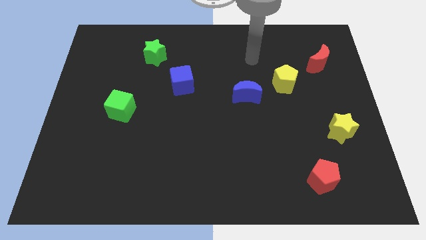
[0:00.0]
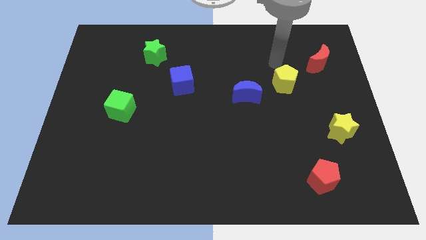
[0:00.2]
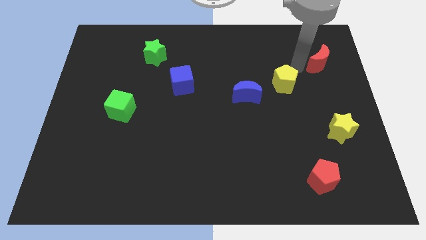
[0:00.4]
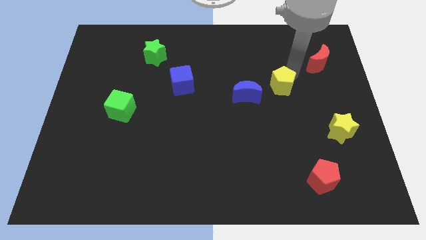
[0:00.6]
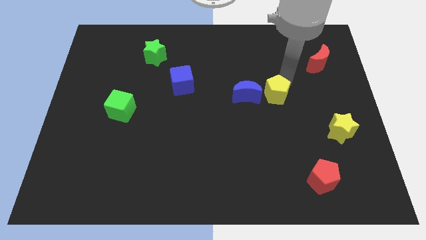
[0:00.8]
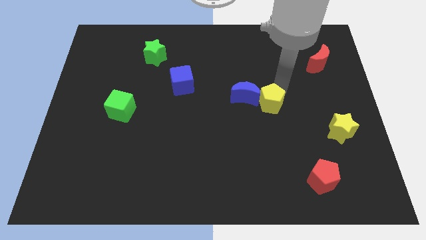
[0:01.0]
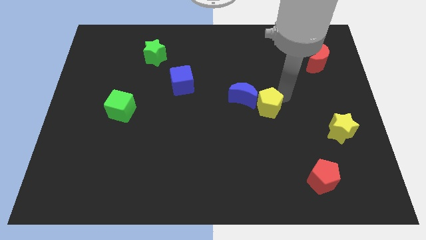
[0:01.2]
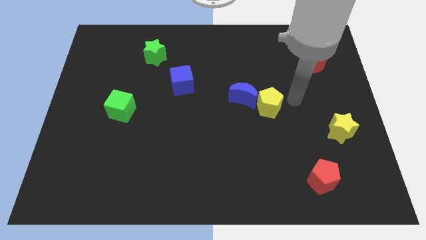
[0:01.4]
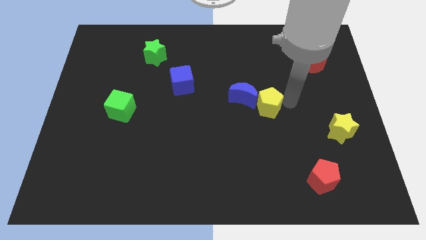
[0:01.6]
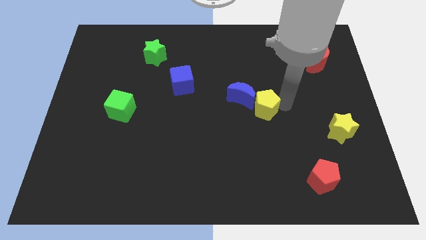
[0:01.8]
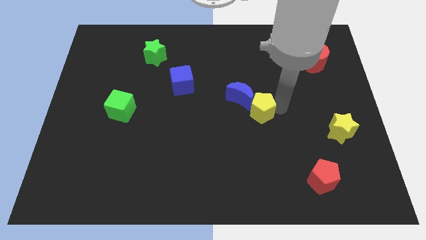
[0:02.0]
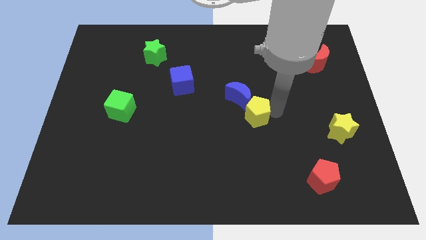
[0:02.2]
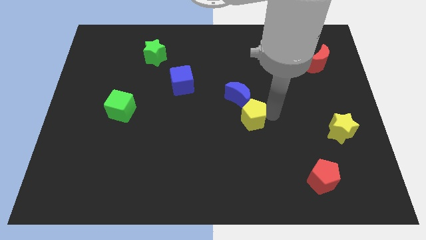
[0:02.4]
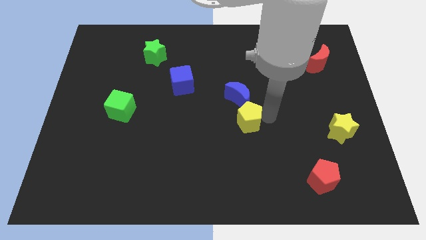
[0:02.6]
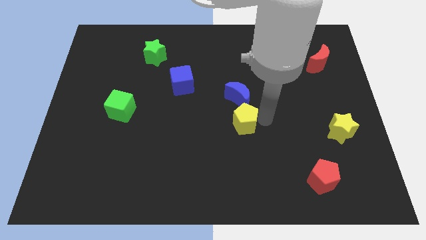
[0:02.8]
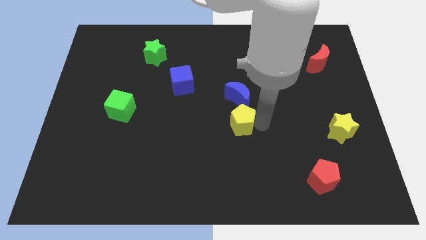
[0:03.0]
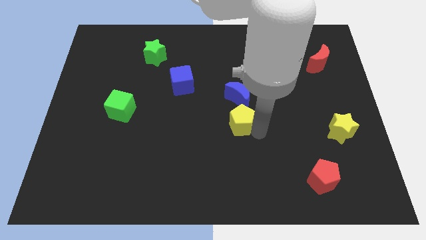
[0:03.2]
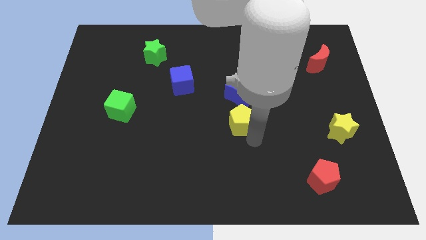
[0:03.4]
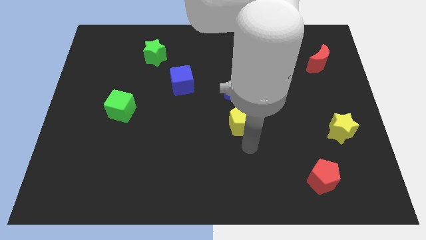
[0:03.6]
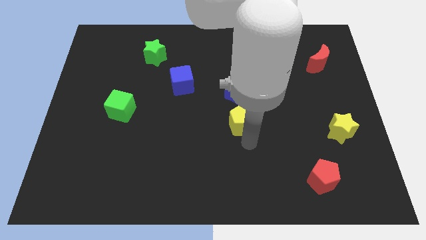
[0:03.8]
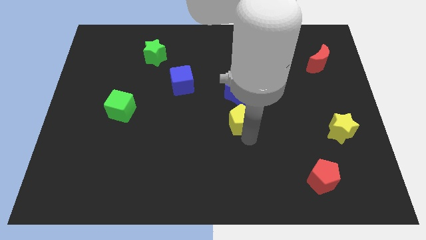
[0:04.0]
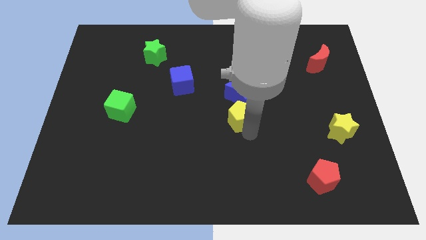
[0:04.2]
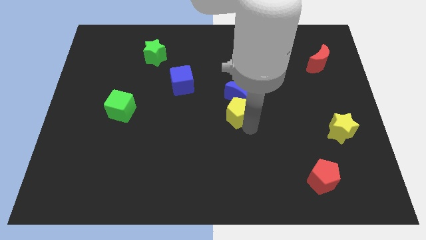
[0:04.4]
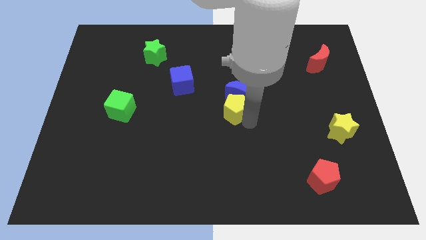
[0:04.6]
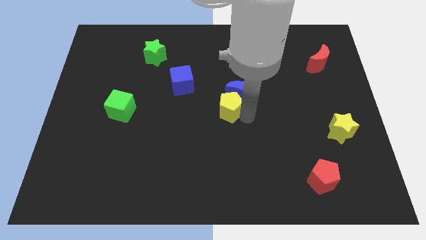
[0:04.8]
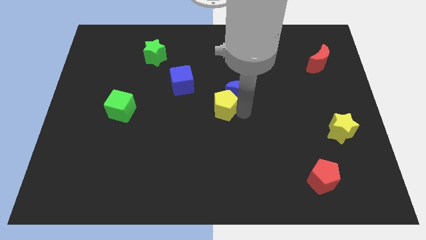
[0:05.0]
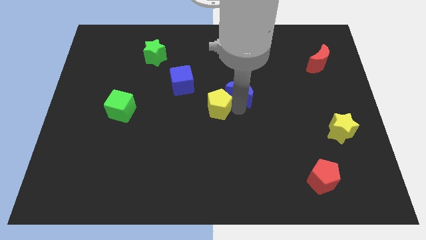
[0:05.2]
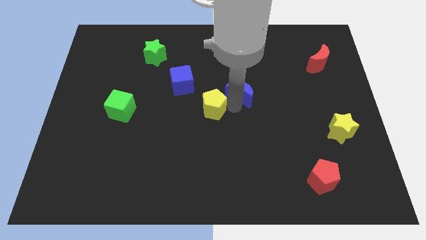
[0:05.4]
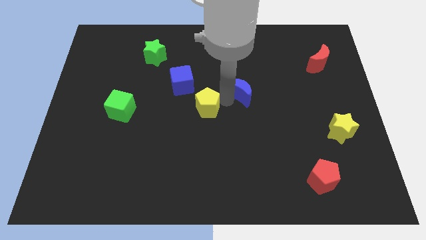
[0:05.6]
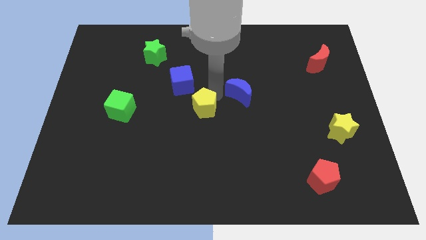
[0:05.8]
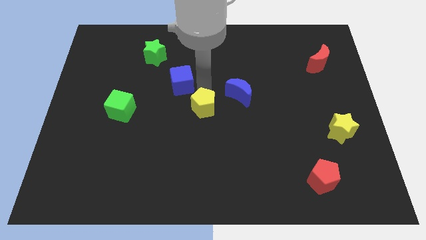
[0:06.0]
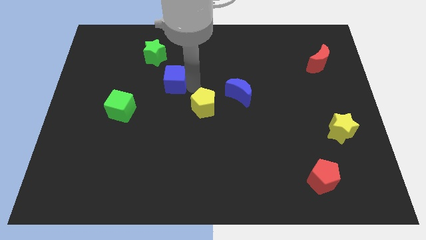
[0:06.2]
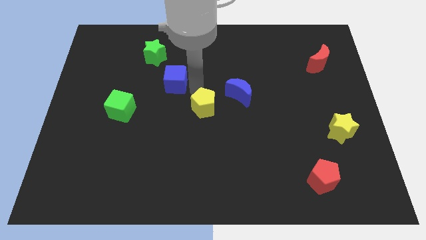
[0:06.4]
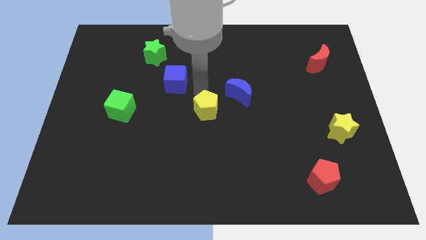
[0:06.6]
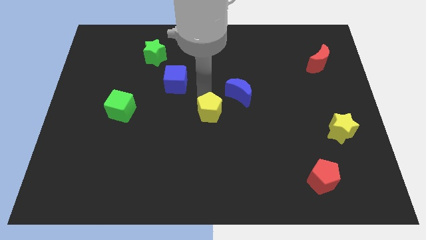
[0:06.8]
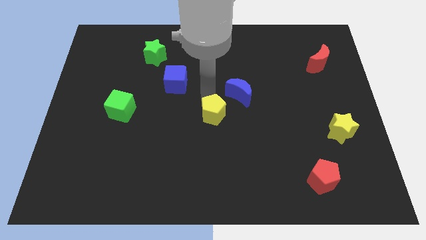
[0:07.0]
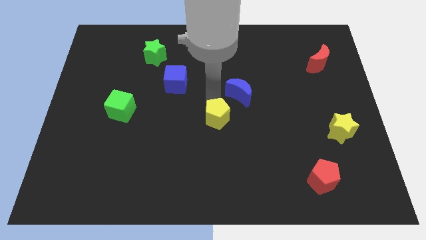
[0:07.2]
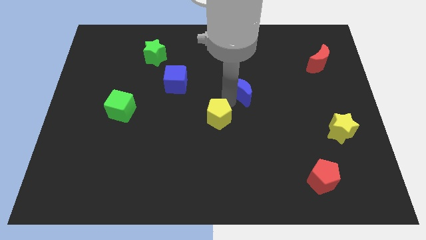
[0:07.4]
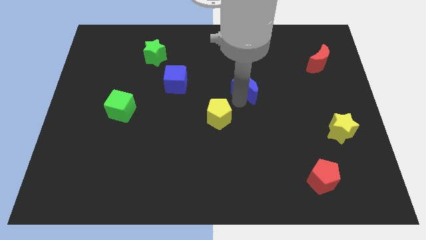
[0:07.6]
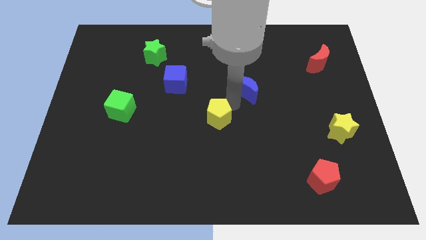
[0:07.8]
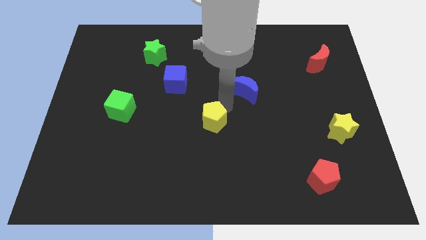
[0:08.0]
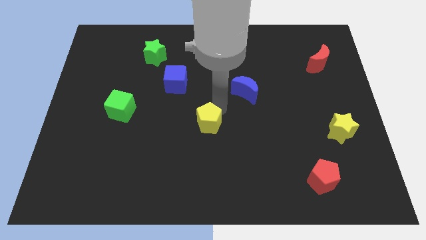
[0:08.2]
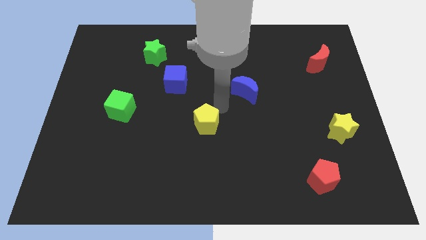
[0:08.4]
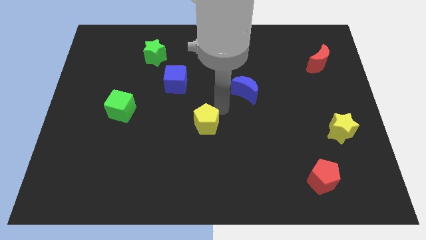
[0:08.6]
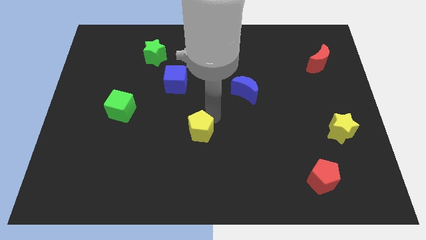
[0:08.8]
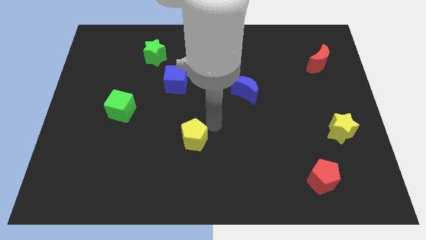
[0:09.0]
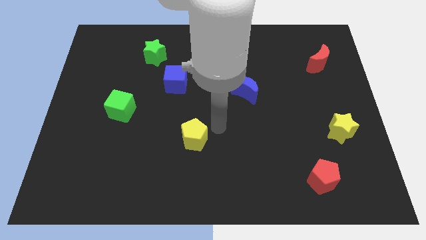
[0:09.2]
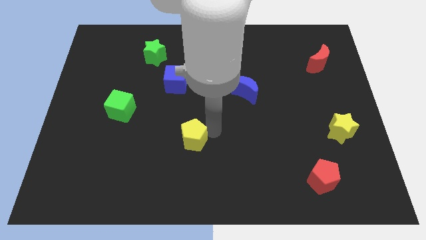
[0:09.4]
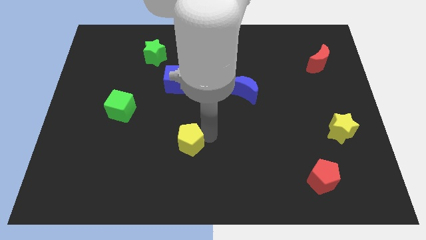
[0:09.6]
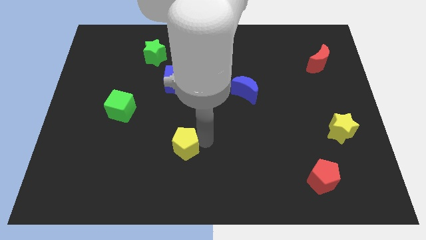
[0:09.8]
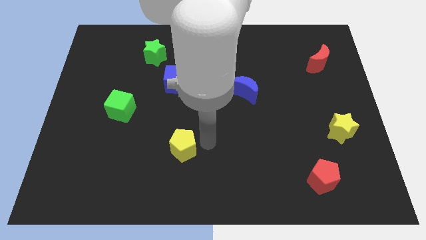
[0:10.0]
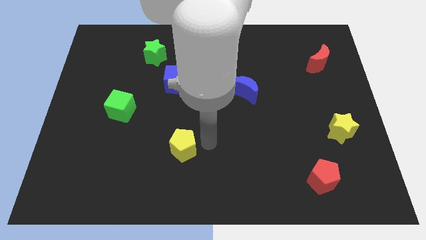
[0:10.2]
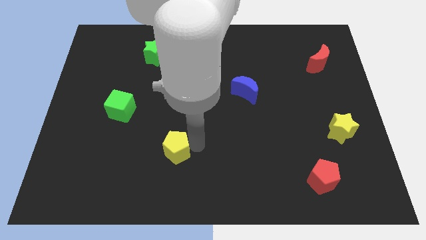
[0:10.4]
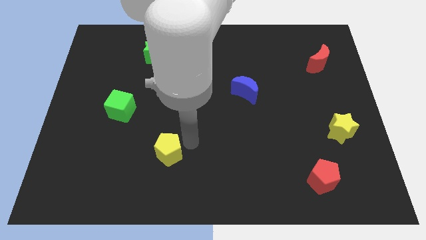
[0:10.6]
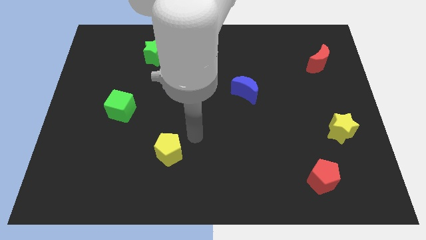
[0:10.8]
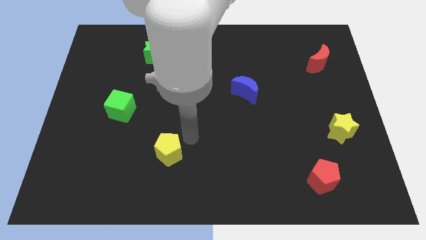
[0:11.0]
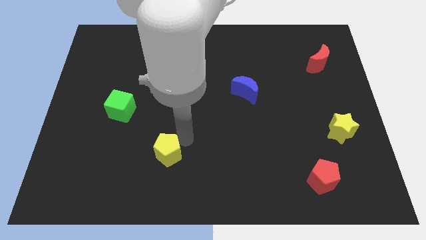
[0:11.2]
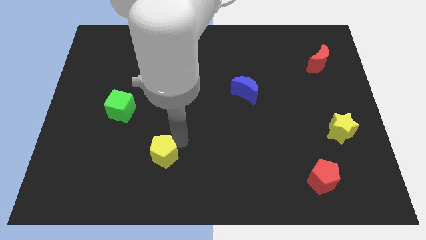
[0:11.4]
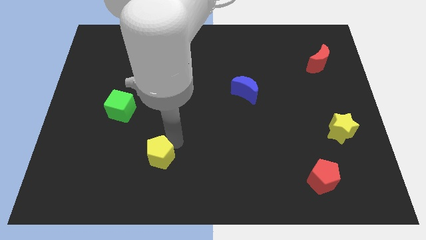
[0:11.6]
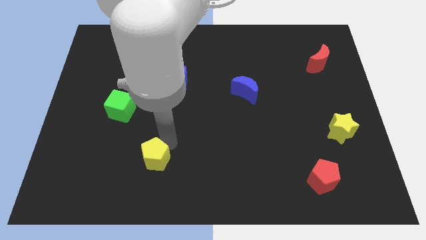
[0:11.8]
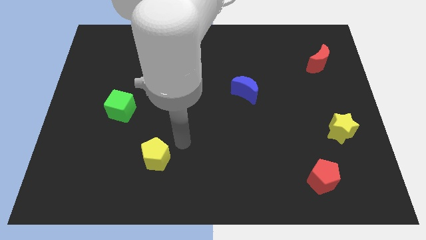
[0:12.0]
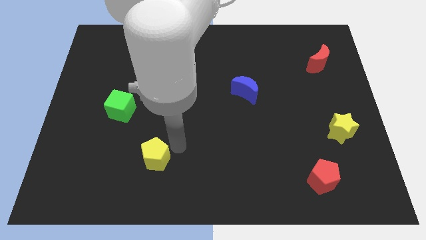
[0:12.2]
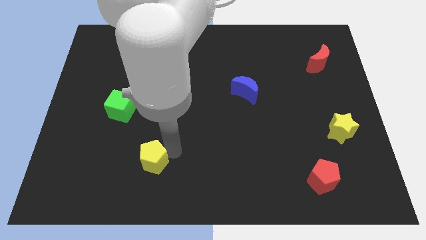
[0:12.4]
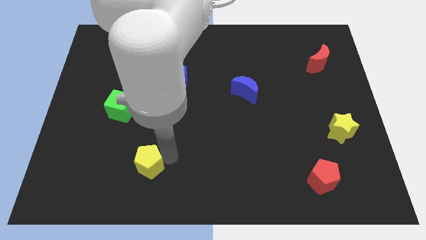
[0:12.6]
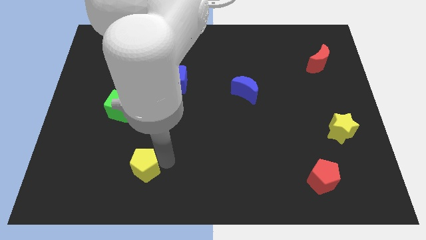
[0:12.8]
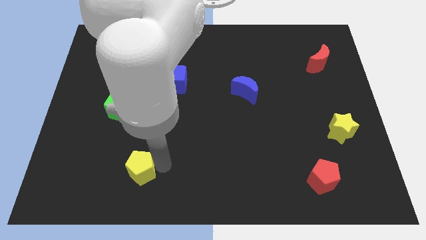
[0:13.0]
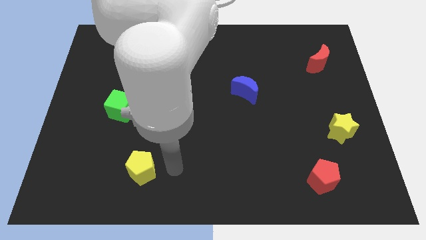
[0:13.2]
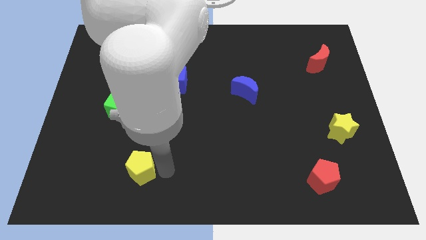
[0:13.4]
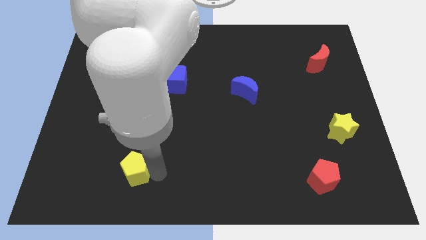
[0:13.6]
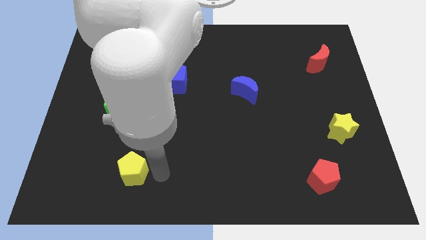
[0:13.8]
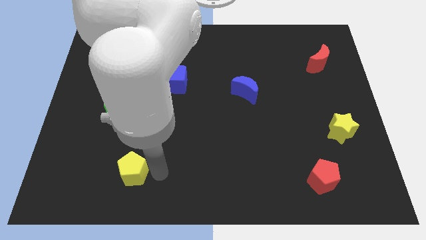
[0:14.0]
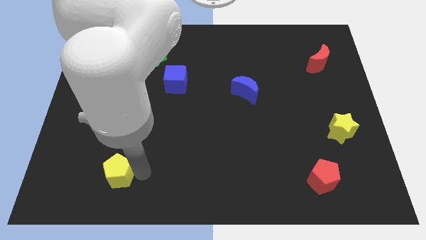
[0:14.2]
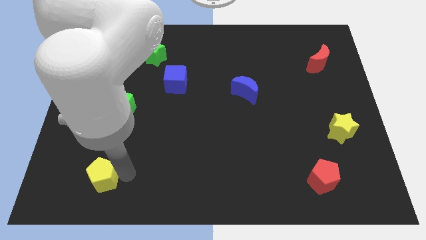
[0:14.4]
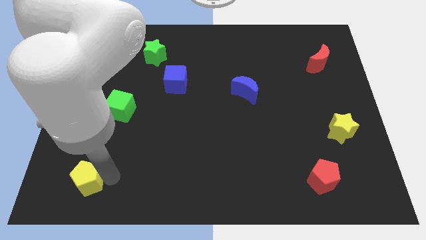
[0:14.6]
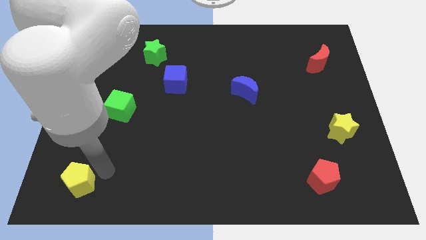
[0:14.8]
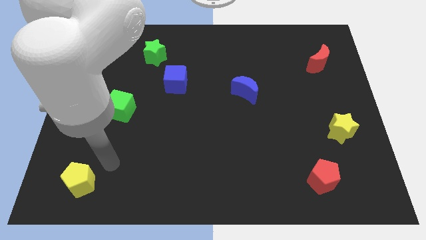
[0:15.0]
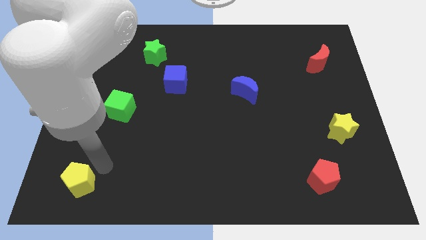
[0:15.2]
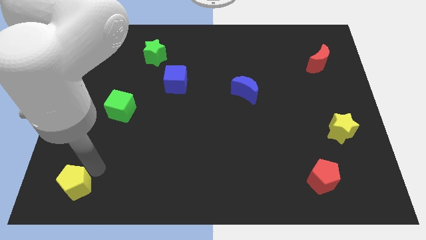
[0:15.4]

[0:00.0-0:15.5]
move the yellow pentagon to the lower left corner
